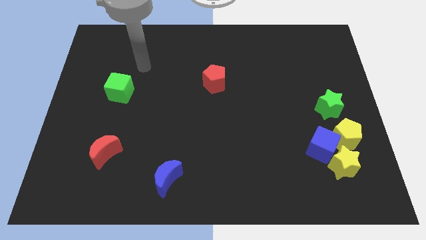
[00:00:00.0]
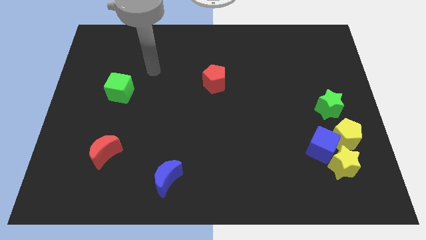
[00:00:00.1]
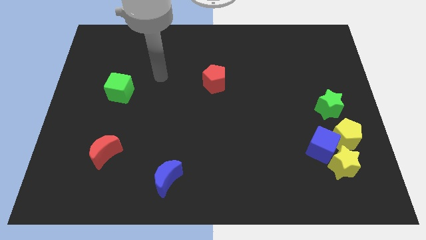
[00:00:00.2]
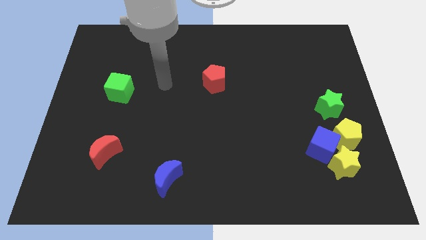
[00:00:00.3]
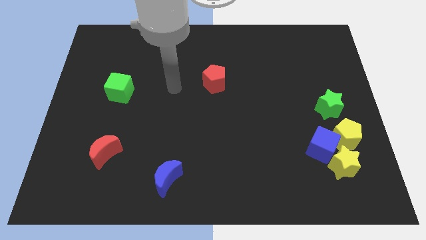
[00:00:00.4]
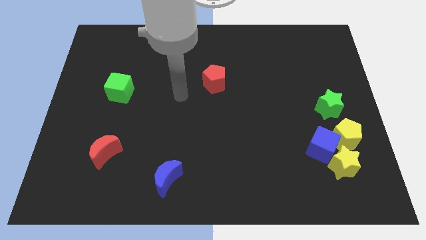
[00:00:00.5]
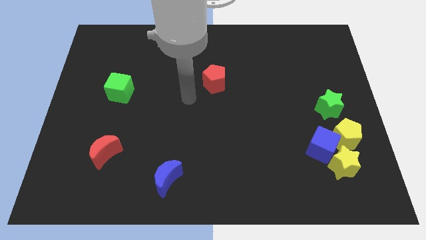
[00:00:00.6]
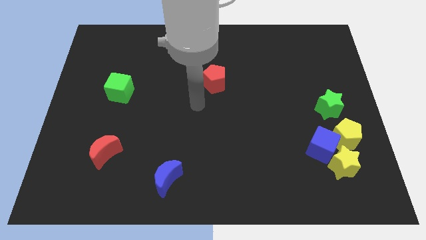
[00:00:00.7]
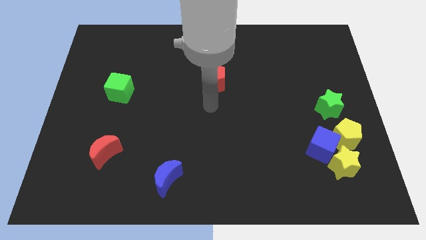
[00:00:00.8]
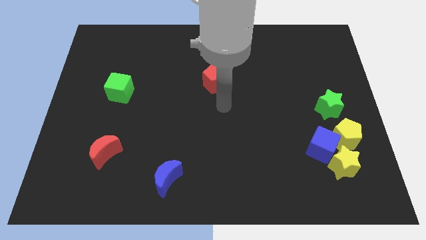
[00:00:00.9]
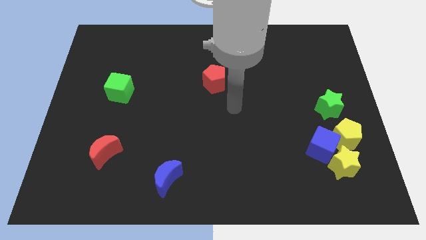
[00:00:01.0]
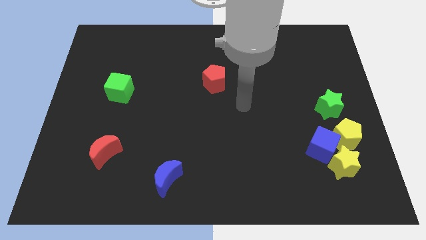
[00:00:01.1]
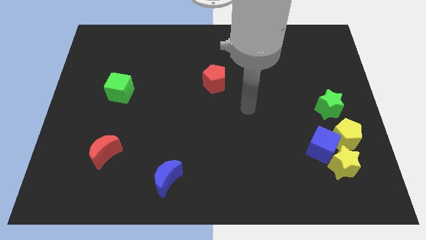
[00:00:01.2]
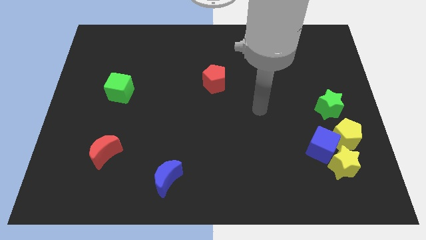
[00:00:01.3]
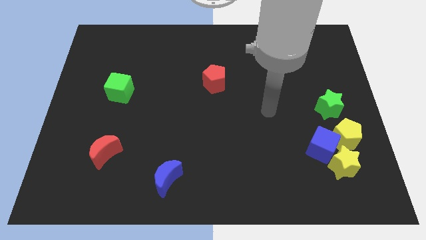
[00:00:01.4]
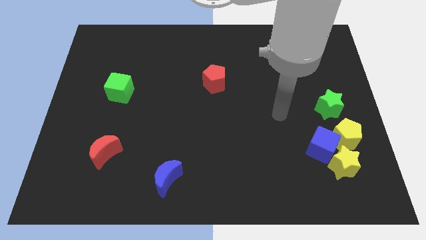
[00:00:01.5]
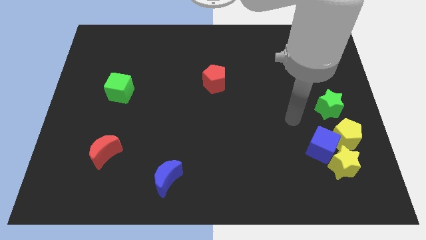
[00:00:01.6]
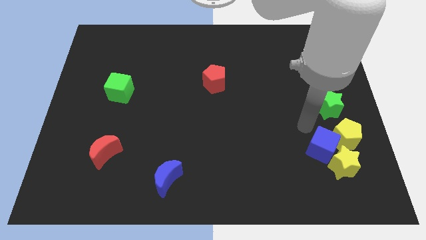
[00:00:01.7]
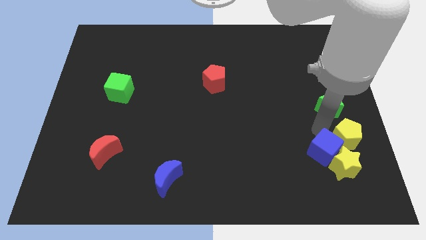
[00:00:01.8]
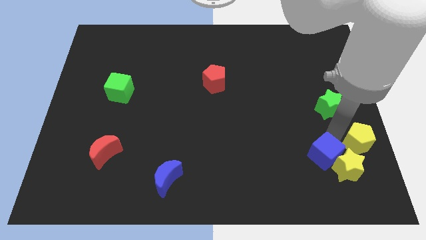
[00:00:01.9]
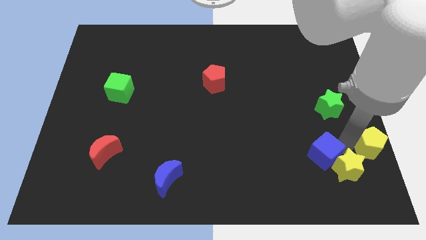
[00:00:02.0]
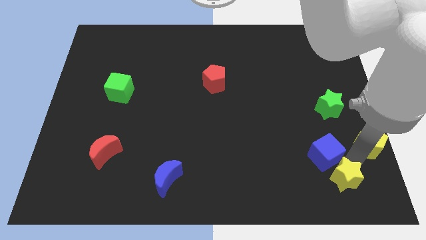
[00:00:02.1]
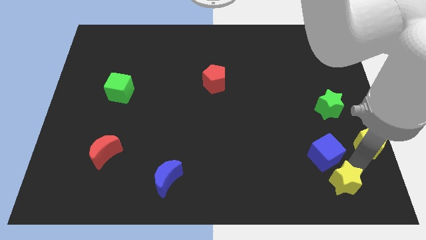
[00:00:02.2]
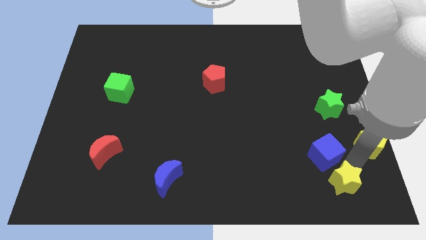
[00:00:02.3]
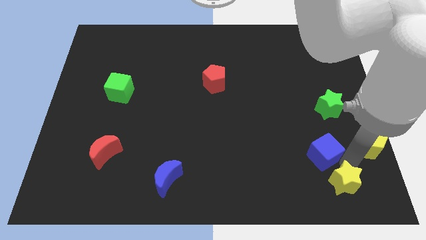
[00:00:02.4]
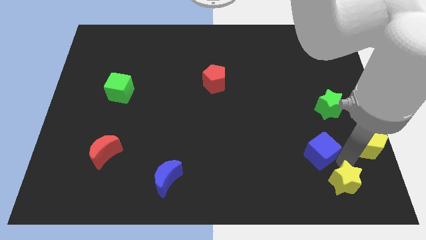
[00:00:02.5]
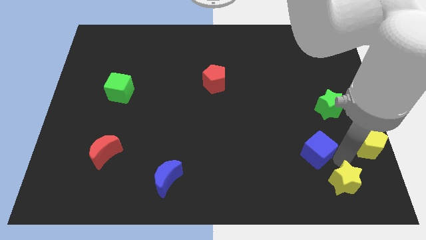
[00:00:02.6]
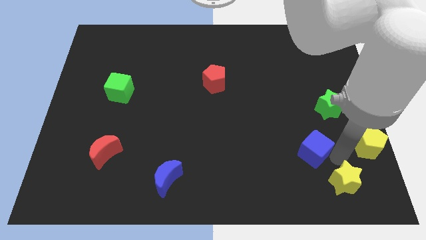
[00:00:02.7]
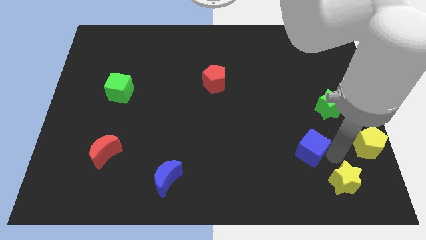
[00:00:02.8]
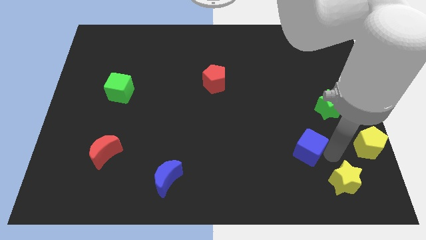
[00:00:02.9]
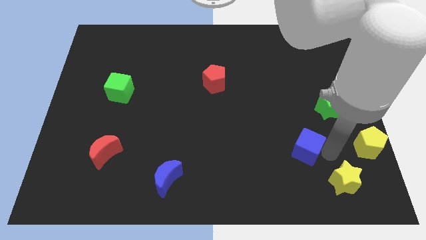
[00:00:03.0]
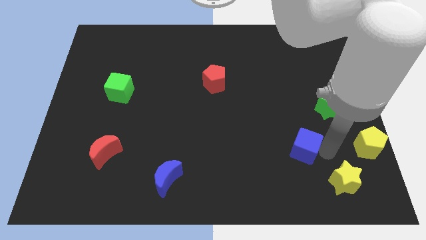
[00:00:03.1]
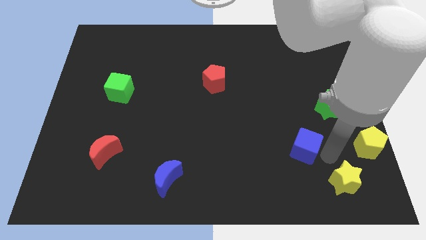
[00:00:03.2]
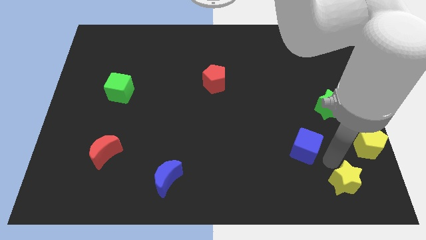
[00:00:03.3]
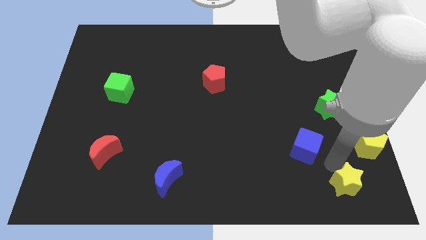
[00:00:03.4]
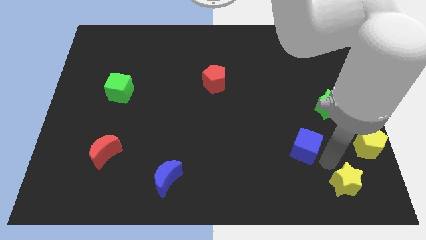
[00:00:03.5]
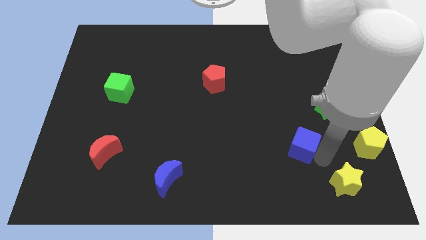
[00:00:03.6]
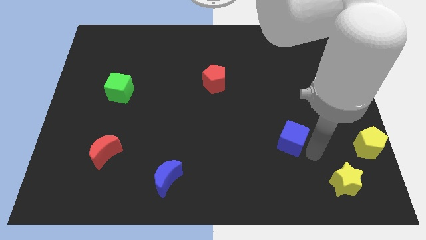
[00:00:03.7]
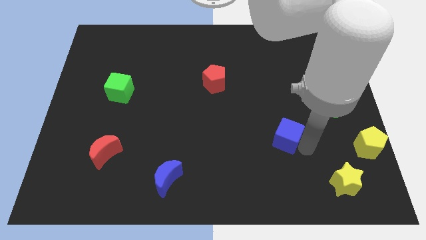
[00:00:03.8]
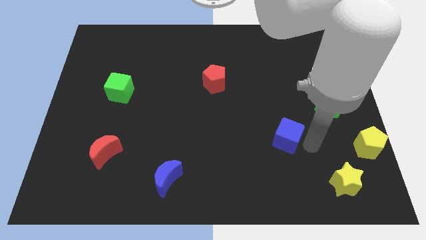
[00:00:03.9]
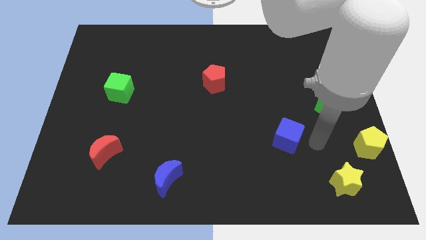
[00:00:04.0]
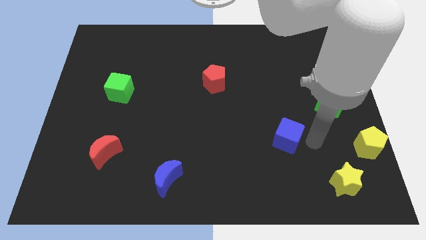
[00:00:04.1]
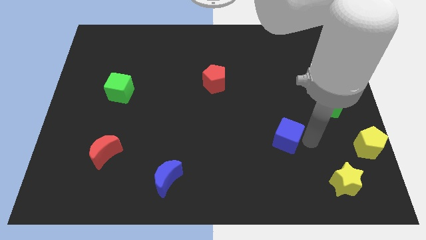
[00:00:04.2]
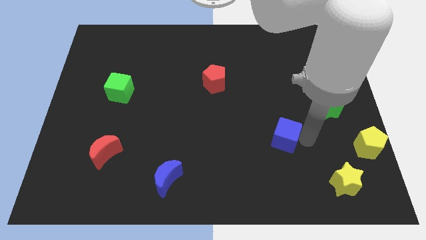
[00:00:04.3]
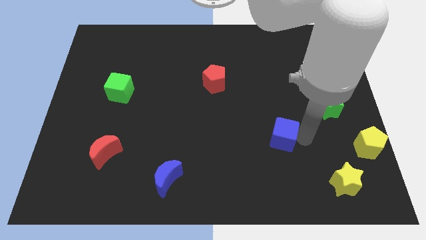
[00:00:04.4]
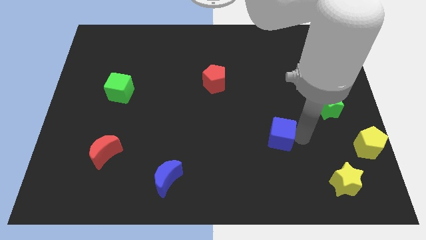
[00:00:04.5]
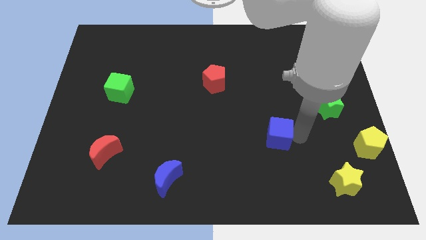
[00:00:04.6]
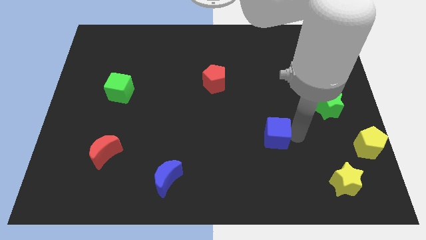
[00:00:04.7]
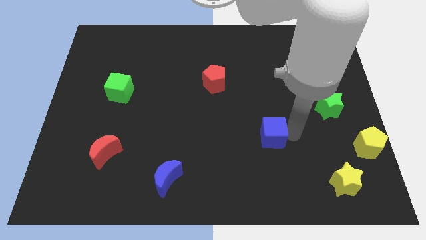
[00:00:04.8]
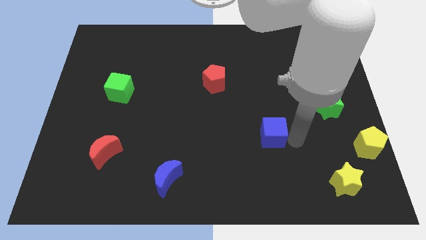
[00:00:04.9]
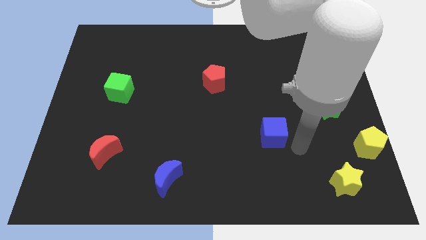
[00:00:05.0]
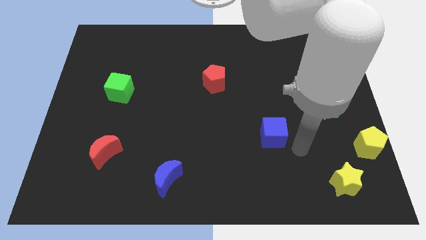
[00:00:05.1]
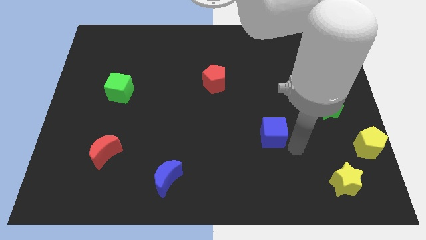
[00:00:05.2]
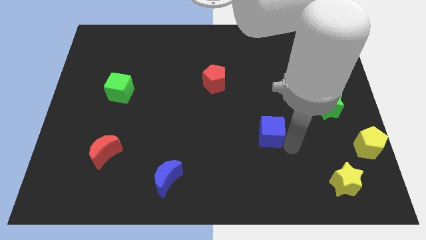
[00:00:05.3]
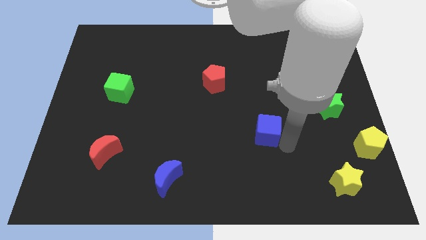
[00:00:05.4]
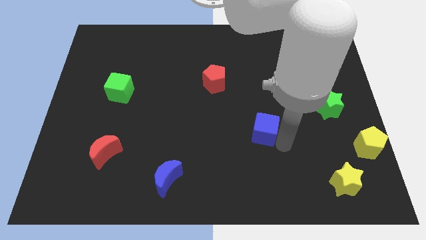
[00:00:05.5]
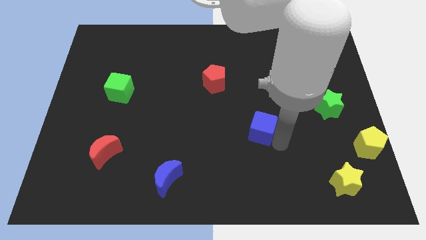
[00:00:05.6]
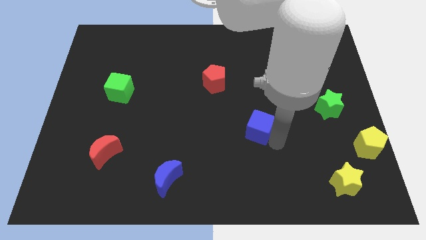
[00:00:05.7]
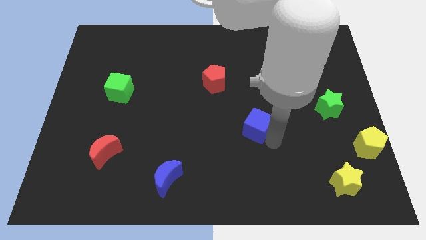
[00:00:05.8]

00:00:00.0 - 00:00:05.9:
put the blue cube to the middle

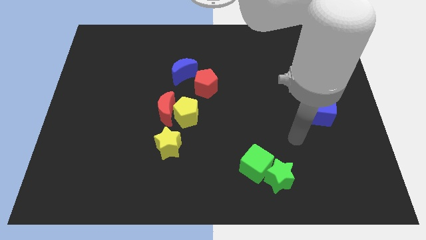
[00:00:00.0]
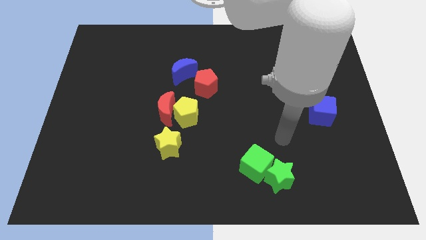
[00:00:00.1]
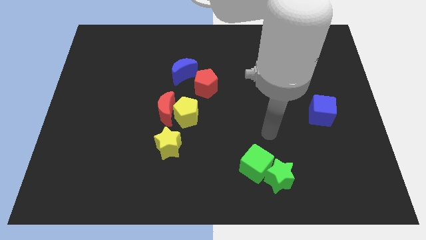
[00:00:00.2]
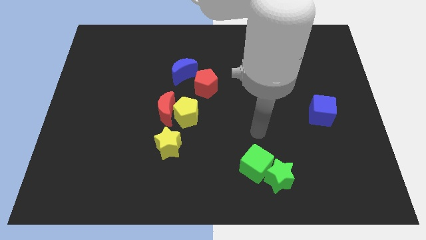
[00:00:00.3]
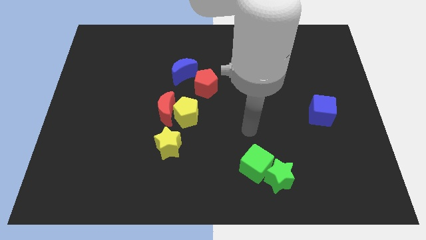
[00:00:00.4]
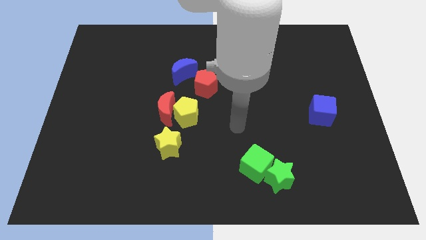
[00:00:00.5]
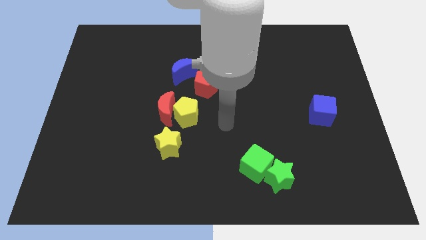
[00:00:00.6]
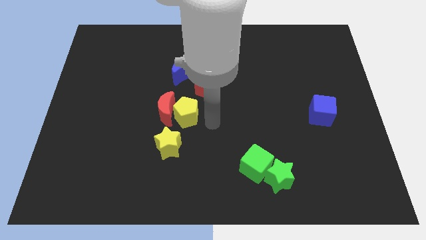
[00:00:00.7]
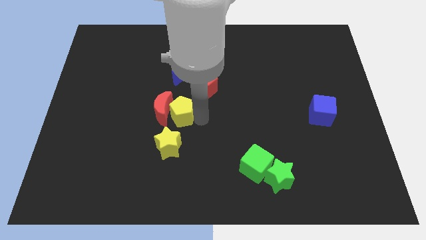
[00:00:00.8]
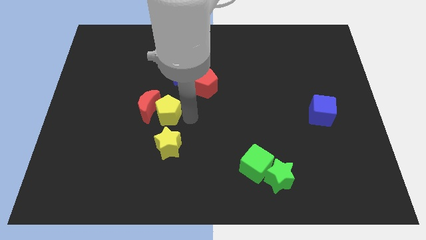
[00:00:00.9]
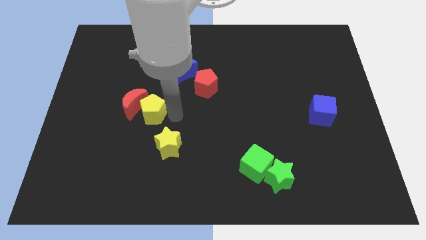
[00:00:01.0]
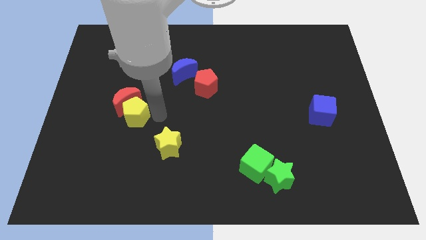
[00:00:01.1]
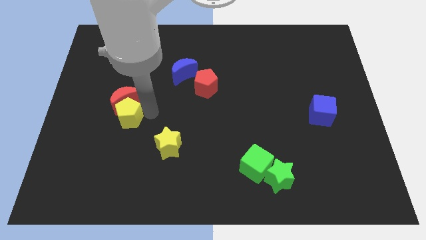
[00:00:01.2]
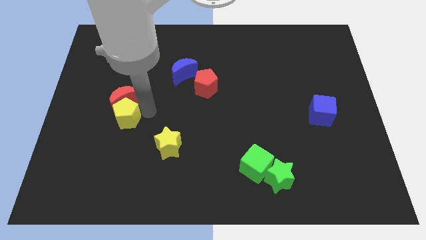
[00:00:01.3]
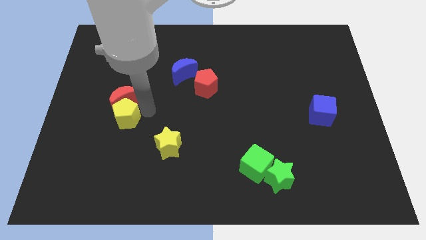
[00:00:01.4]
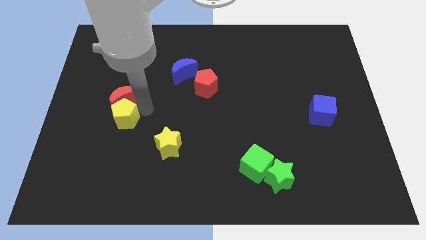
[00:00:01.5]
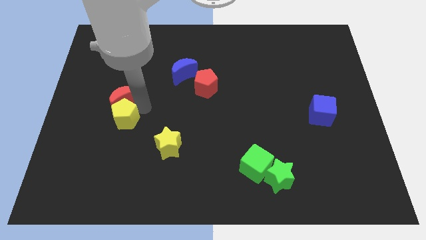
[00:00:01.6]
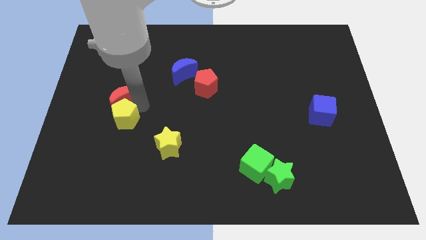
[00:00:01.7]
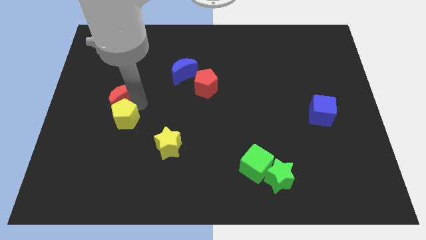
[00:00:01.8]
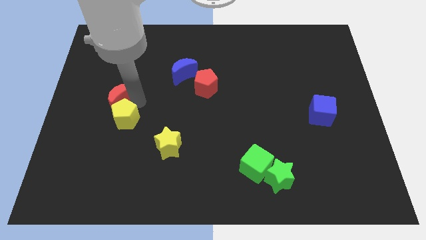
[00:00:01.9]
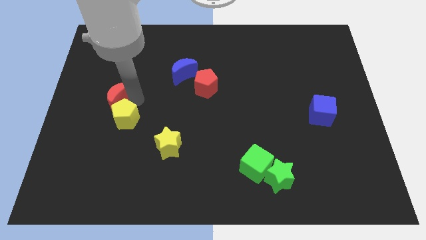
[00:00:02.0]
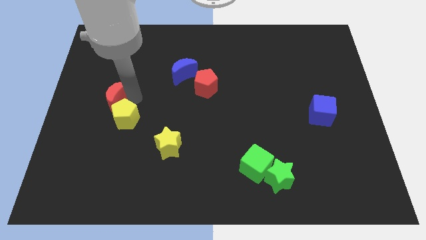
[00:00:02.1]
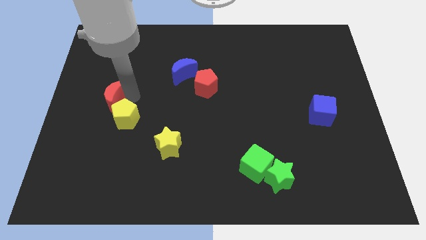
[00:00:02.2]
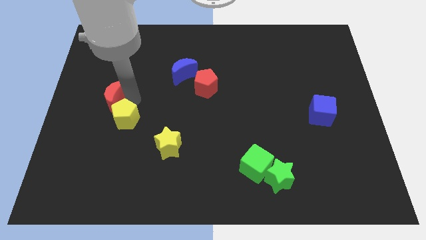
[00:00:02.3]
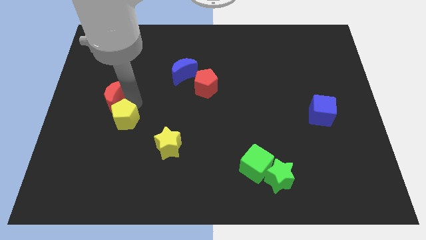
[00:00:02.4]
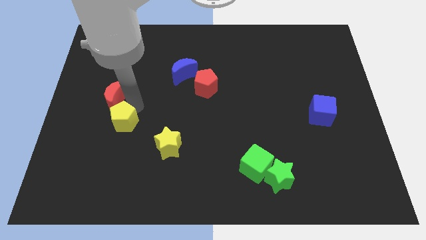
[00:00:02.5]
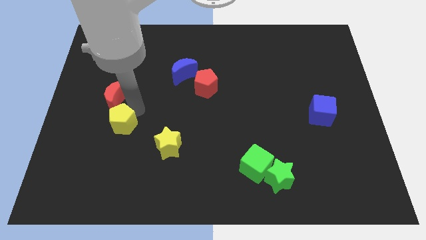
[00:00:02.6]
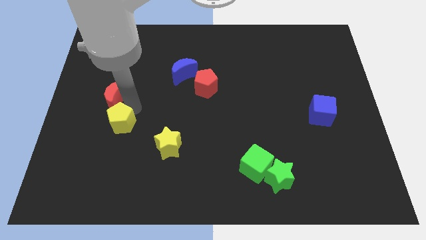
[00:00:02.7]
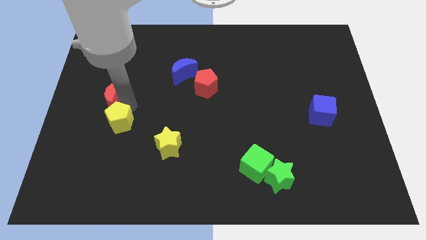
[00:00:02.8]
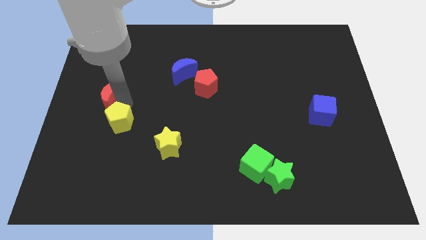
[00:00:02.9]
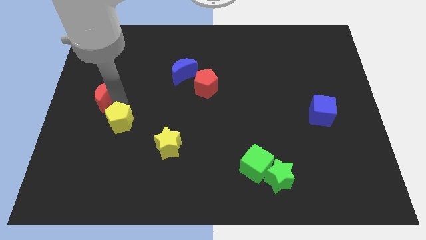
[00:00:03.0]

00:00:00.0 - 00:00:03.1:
put the red moon to the left side of the board
